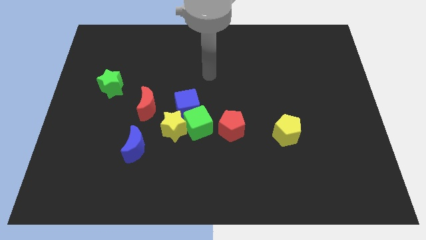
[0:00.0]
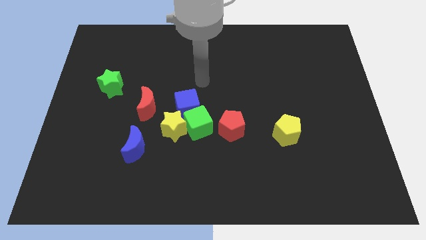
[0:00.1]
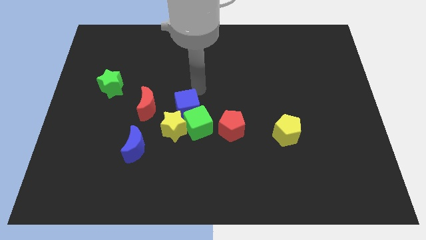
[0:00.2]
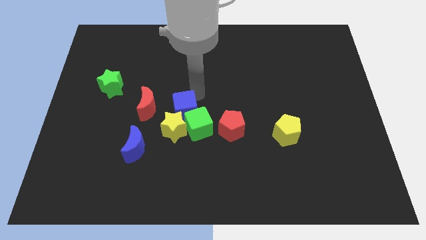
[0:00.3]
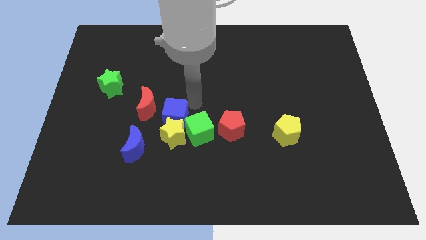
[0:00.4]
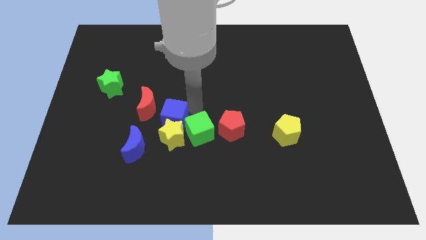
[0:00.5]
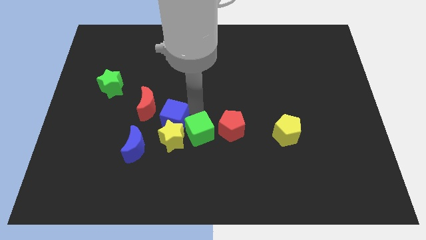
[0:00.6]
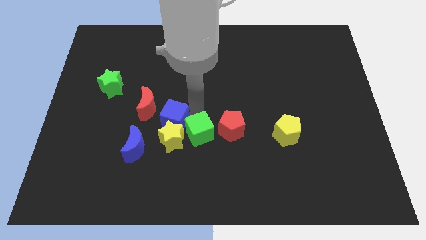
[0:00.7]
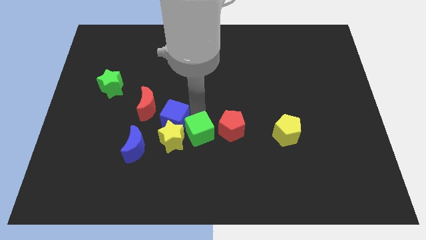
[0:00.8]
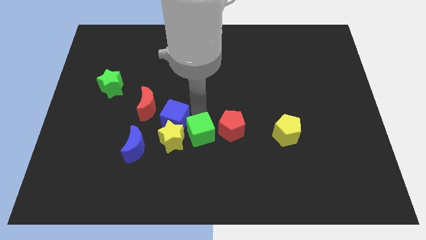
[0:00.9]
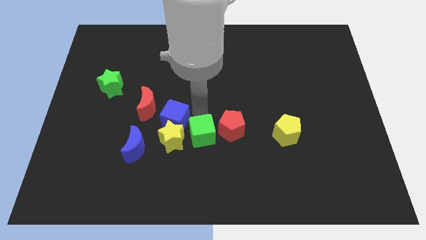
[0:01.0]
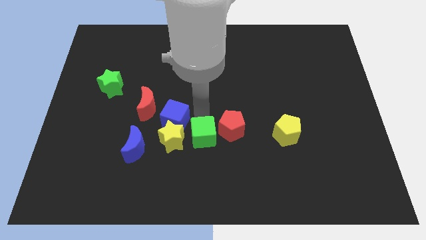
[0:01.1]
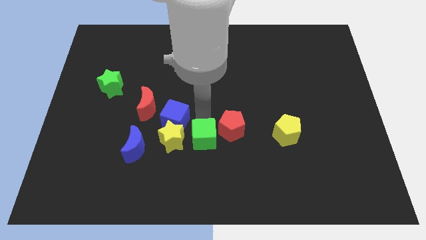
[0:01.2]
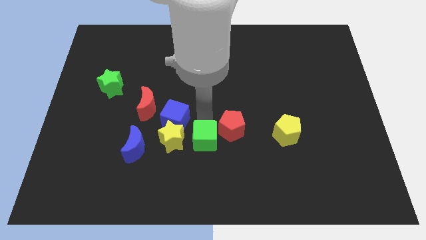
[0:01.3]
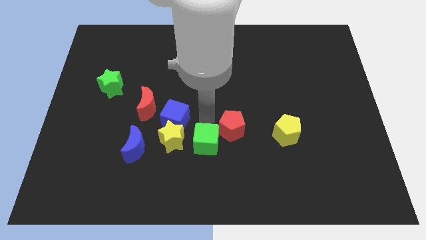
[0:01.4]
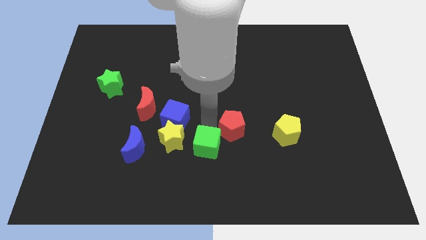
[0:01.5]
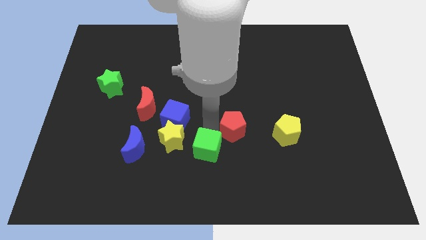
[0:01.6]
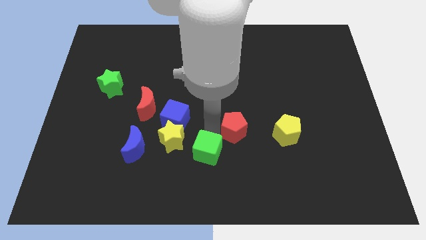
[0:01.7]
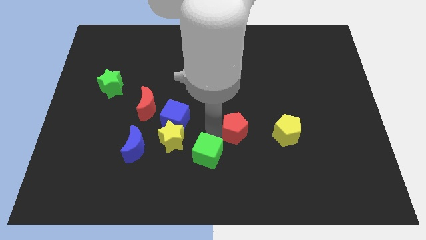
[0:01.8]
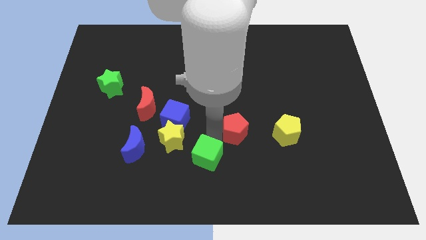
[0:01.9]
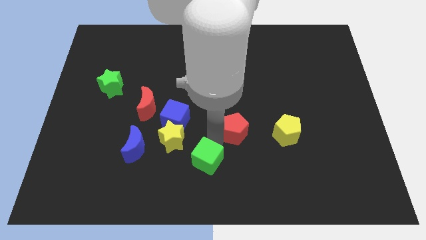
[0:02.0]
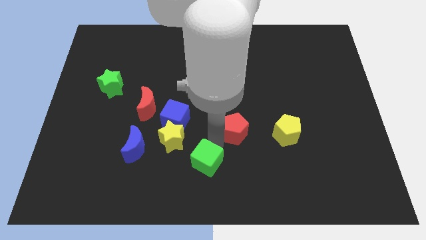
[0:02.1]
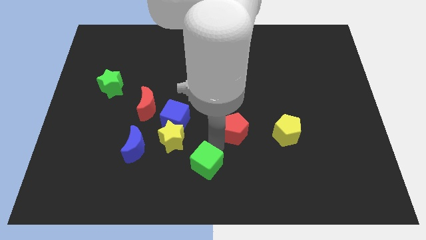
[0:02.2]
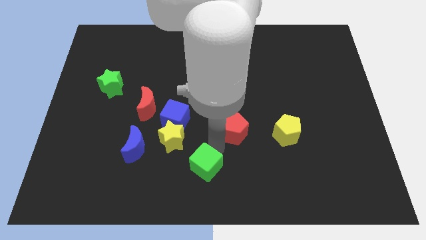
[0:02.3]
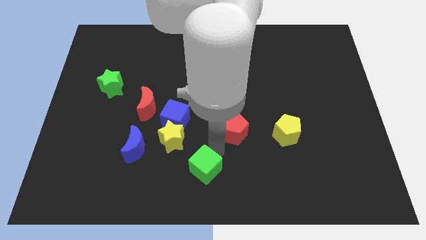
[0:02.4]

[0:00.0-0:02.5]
move the green cube away from the yellow star, blue cube, and red pentagon

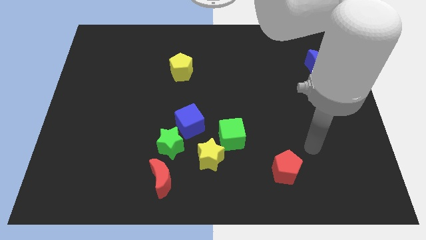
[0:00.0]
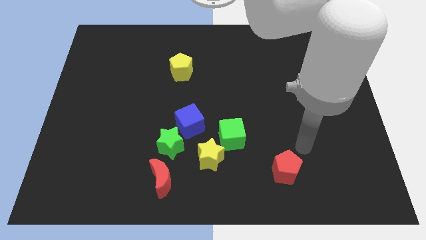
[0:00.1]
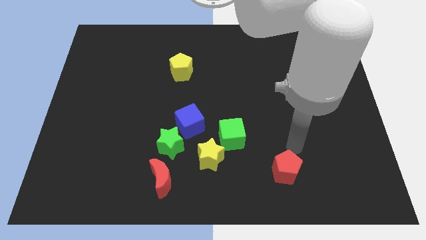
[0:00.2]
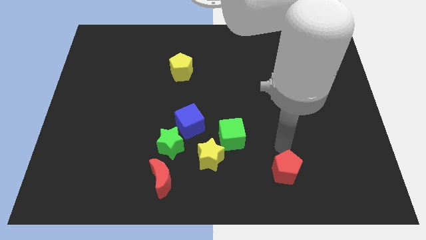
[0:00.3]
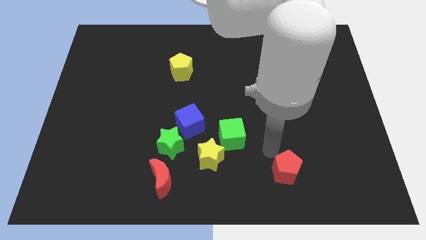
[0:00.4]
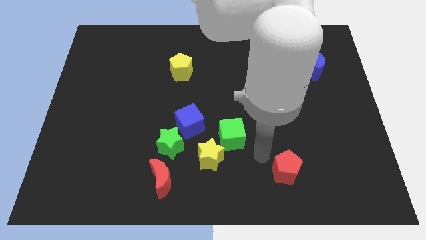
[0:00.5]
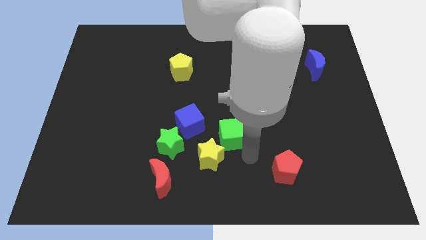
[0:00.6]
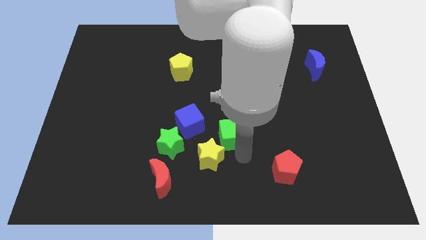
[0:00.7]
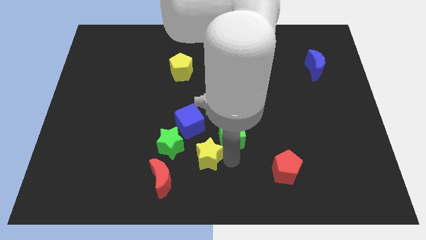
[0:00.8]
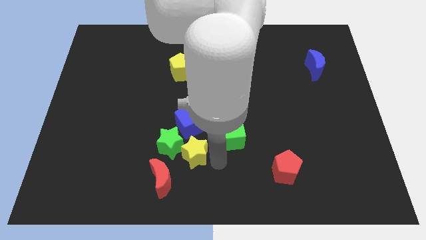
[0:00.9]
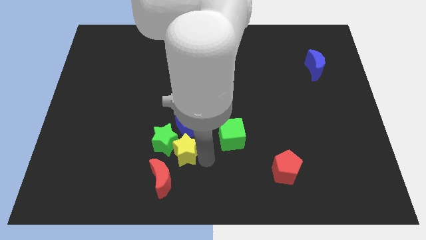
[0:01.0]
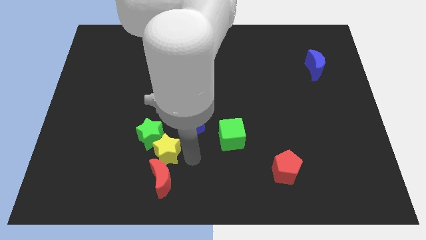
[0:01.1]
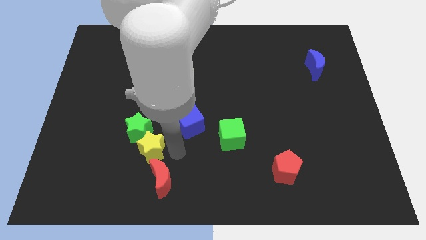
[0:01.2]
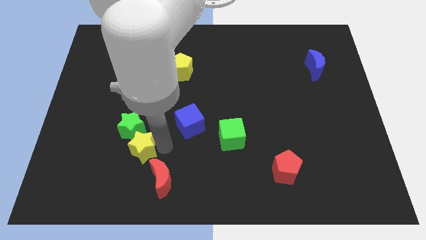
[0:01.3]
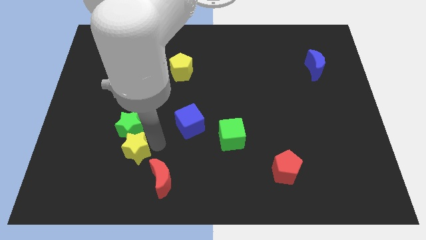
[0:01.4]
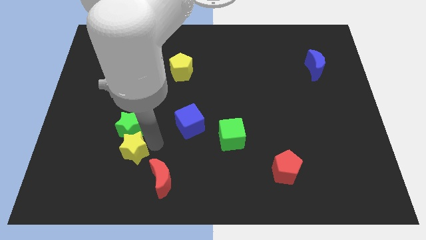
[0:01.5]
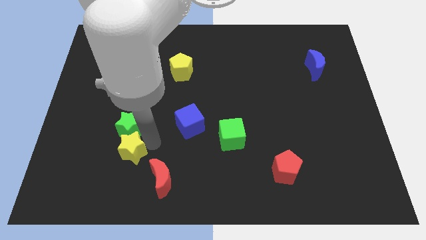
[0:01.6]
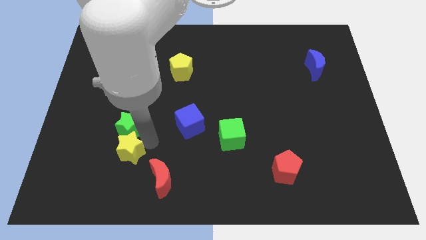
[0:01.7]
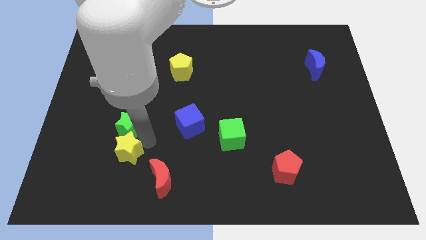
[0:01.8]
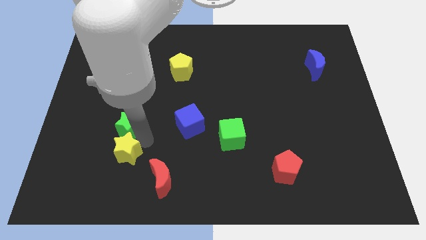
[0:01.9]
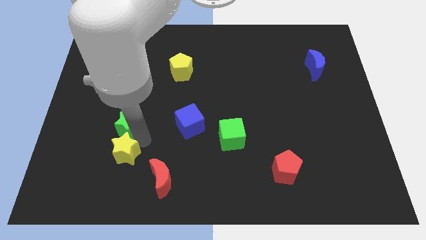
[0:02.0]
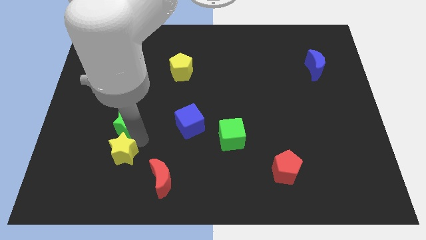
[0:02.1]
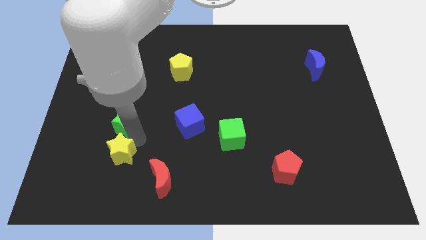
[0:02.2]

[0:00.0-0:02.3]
move the green star away from the blue cube, red moon, and yellow star

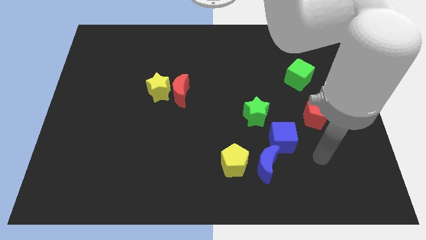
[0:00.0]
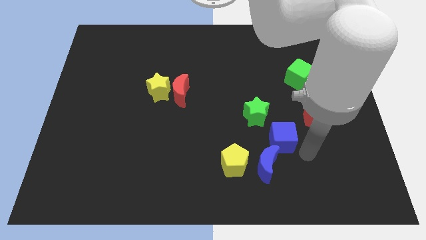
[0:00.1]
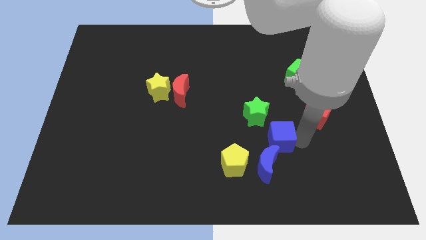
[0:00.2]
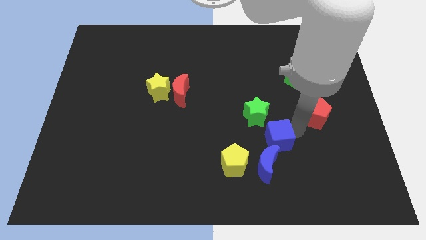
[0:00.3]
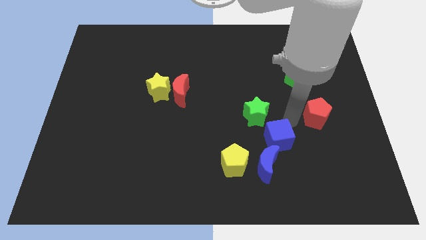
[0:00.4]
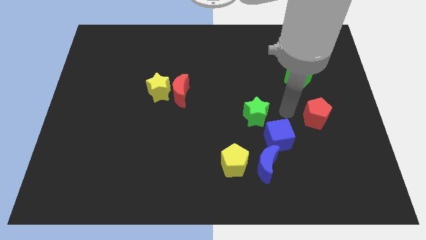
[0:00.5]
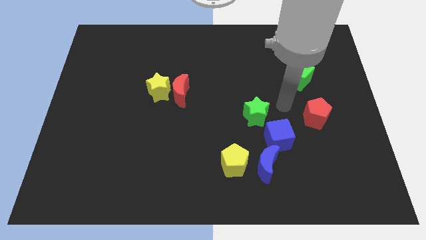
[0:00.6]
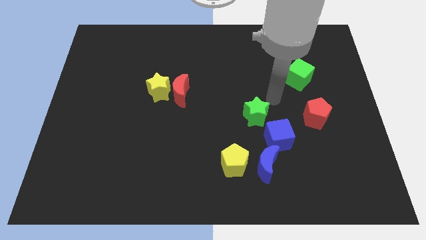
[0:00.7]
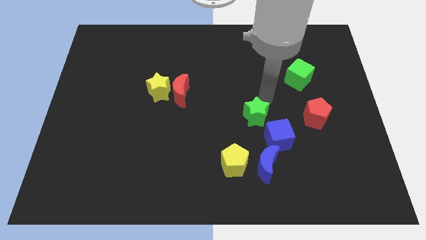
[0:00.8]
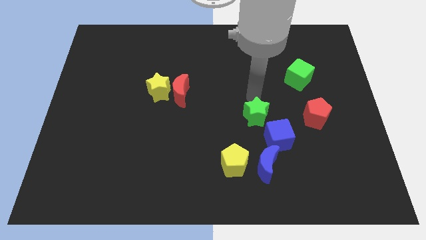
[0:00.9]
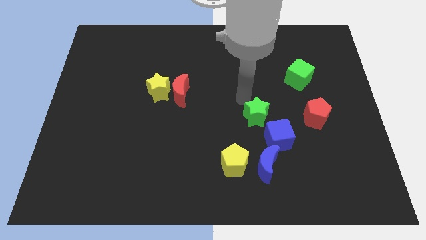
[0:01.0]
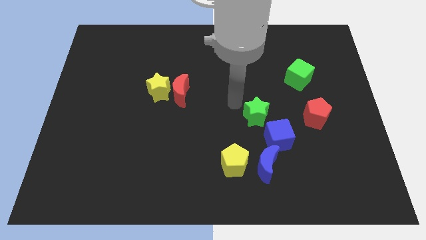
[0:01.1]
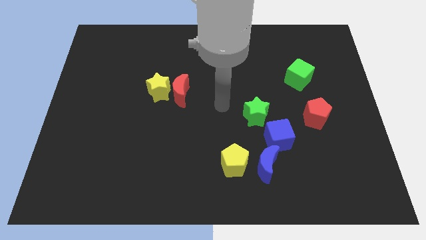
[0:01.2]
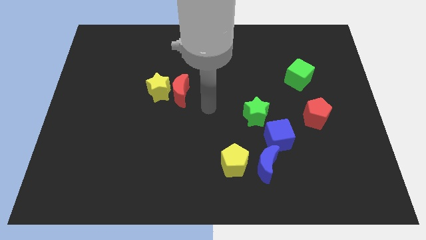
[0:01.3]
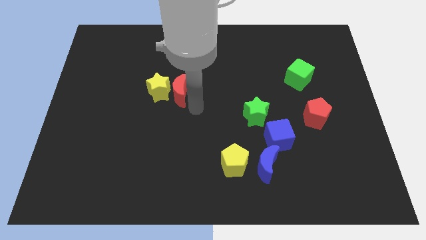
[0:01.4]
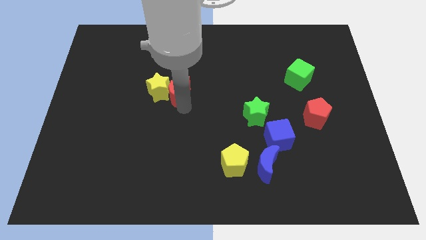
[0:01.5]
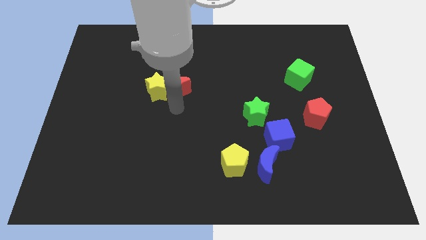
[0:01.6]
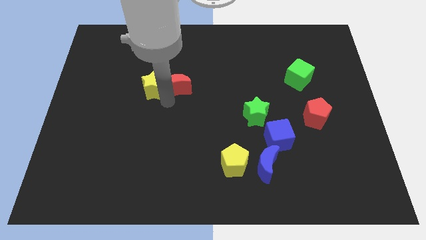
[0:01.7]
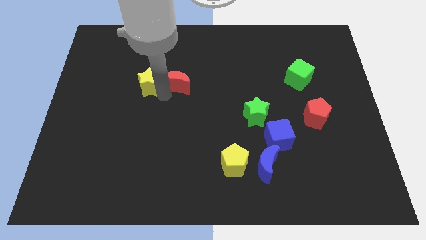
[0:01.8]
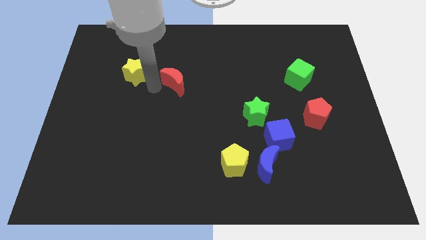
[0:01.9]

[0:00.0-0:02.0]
move the red moon away from the yellow star

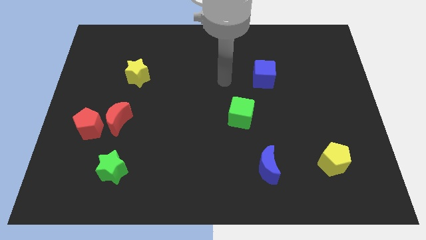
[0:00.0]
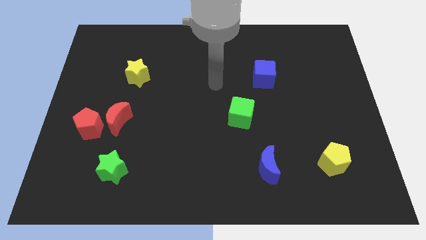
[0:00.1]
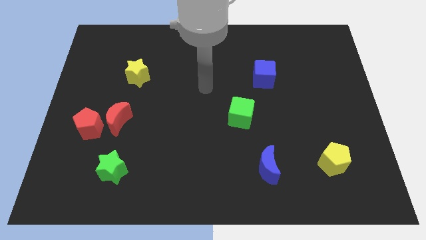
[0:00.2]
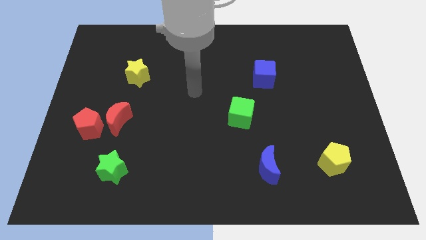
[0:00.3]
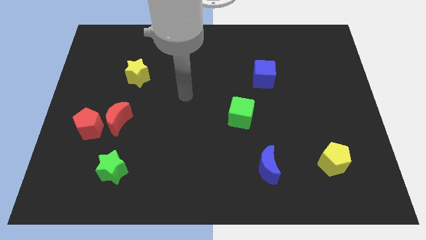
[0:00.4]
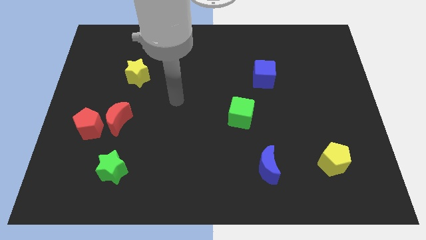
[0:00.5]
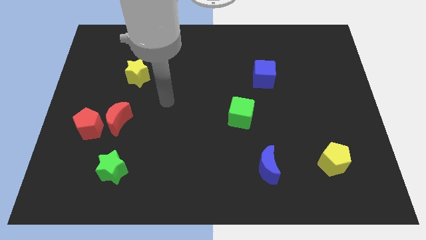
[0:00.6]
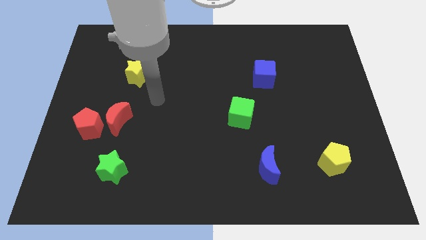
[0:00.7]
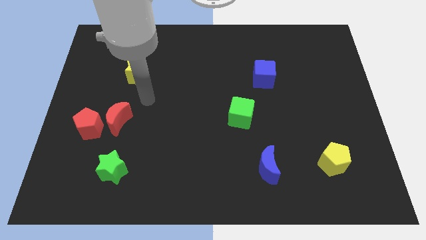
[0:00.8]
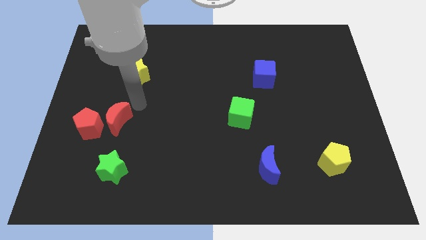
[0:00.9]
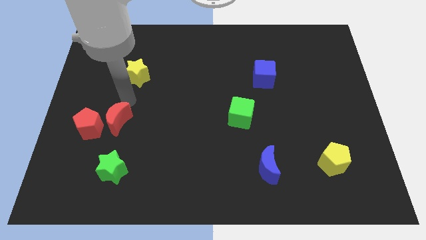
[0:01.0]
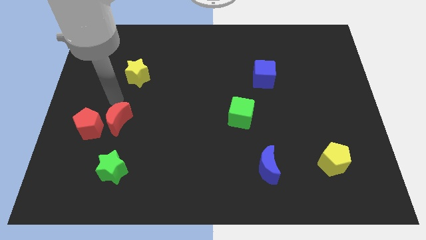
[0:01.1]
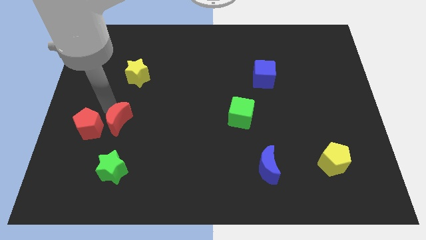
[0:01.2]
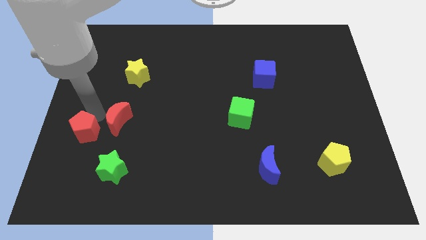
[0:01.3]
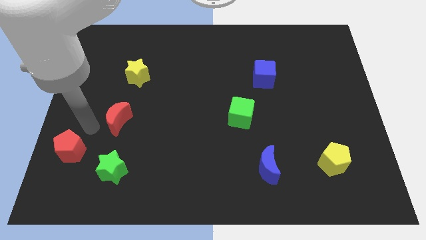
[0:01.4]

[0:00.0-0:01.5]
pull the red moon apart from the red pentagon

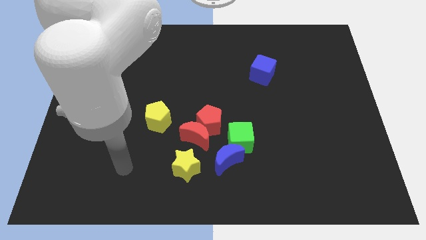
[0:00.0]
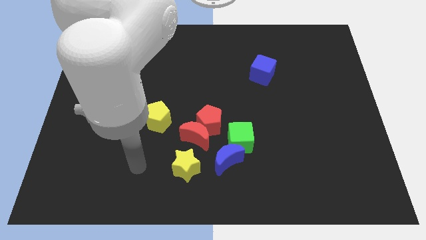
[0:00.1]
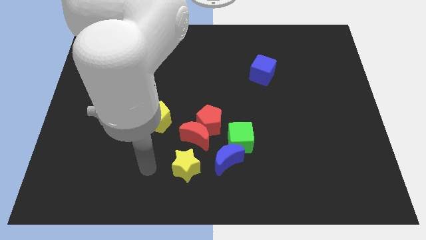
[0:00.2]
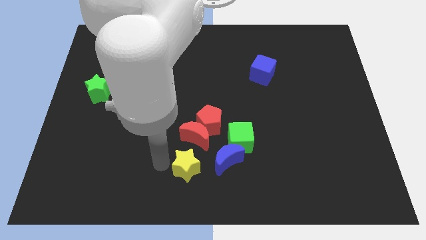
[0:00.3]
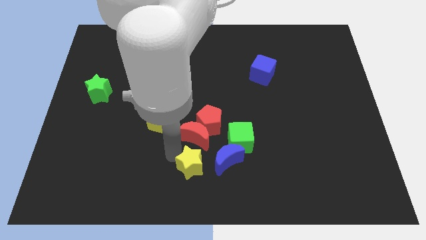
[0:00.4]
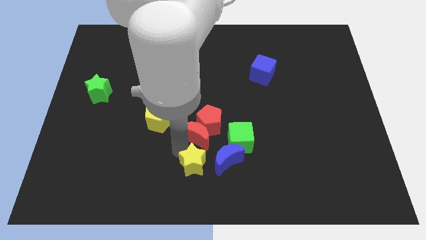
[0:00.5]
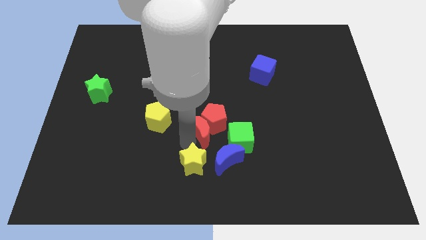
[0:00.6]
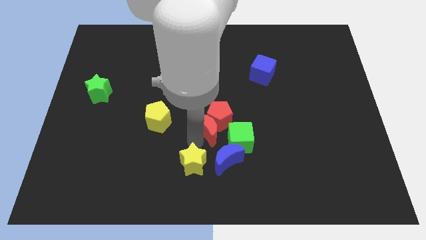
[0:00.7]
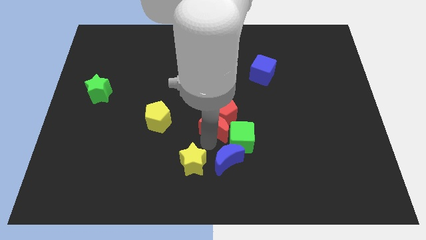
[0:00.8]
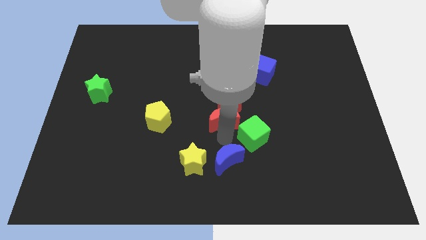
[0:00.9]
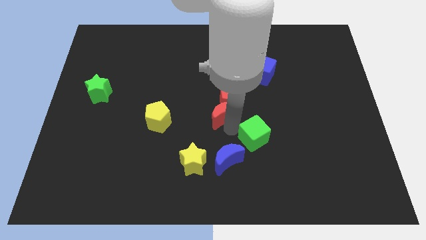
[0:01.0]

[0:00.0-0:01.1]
move the red pentagon away from the group
